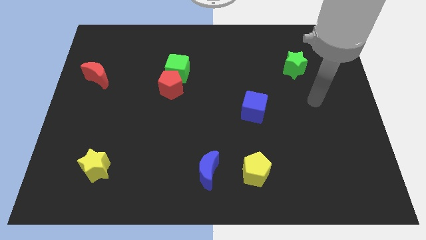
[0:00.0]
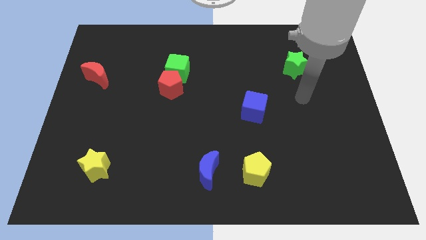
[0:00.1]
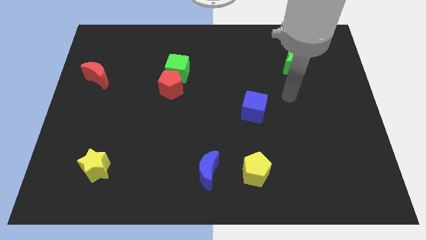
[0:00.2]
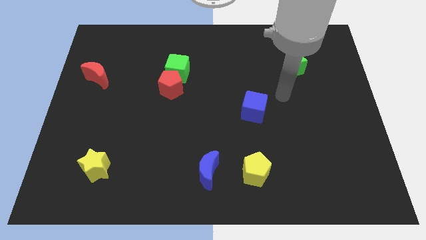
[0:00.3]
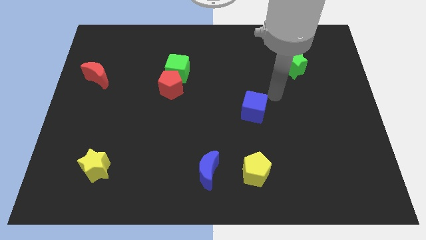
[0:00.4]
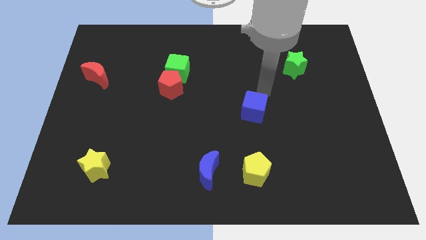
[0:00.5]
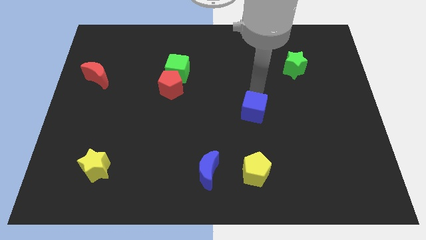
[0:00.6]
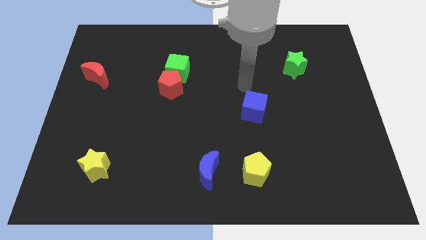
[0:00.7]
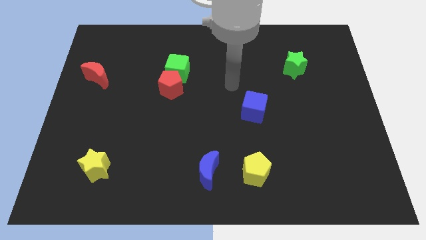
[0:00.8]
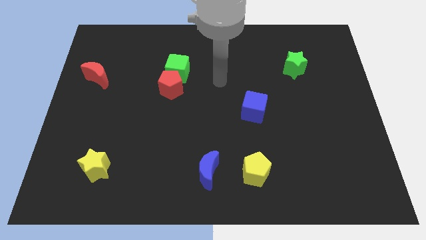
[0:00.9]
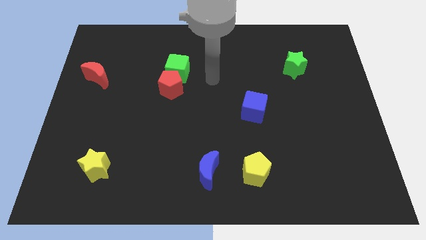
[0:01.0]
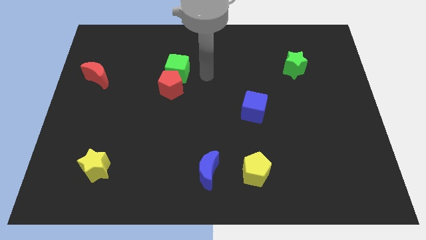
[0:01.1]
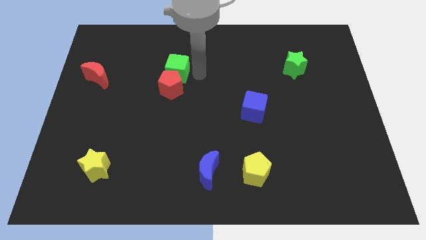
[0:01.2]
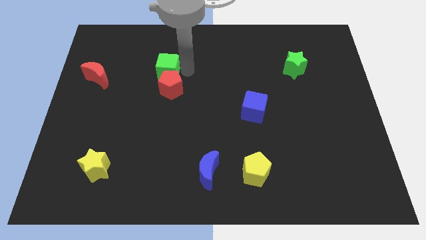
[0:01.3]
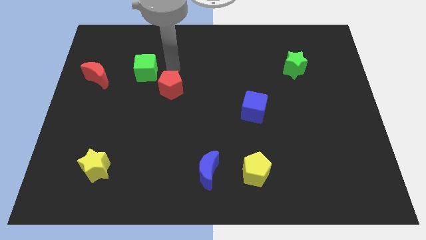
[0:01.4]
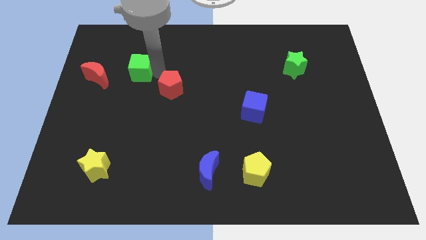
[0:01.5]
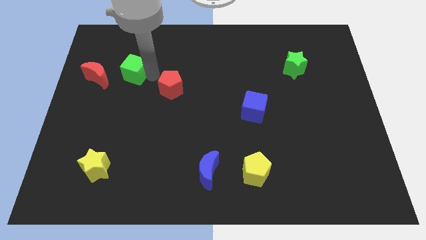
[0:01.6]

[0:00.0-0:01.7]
move the red pentagon away from the green cube

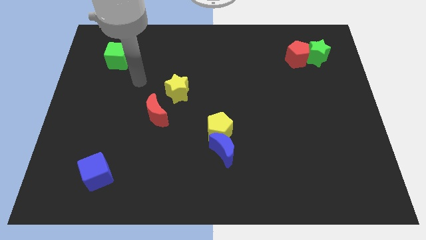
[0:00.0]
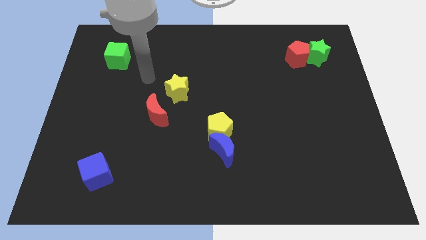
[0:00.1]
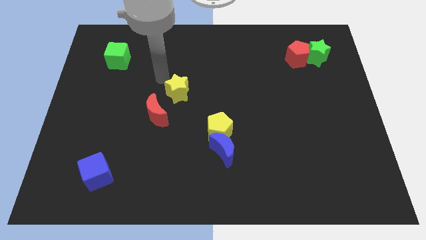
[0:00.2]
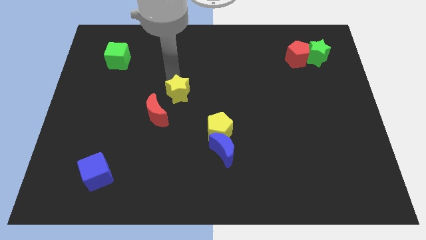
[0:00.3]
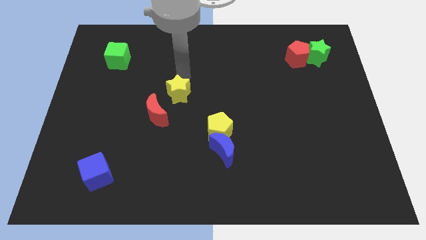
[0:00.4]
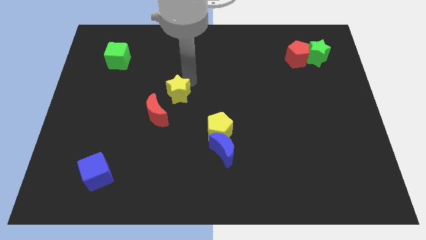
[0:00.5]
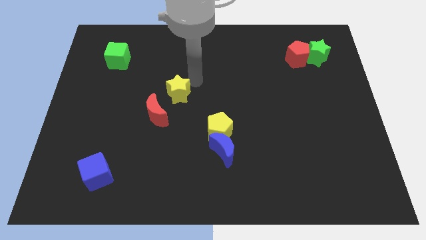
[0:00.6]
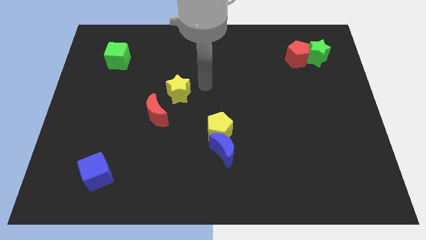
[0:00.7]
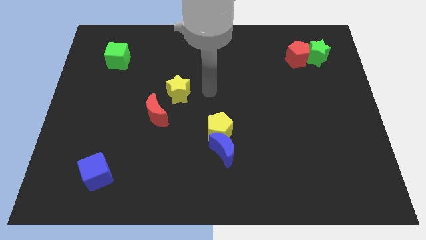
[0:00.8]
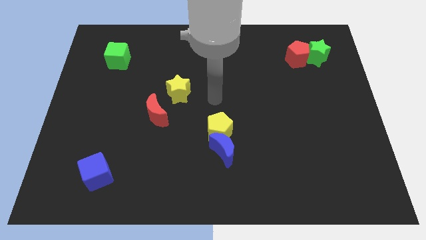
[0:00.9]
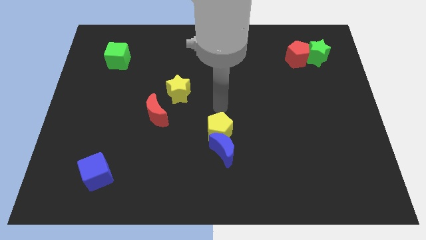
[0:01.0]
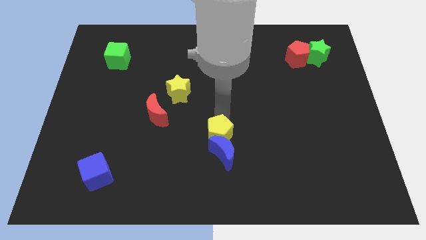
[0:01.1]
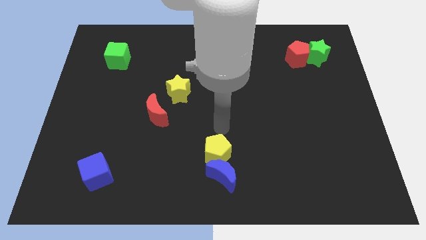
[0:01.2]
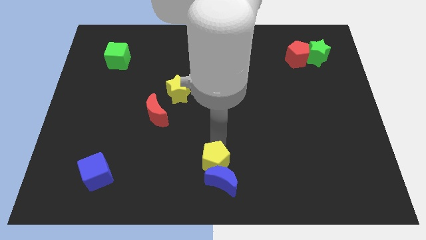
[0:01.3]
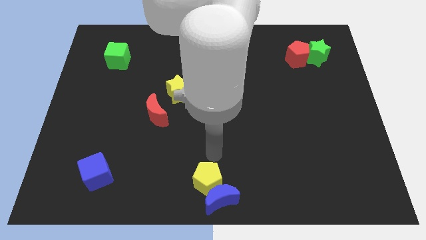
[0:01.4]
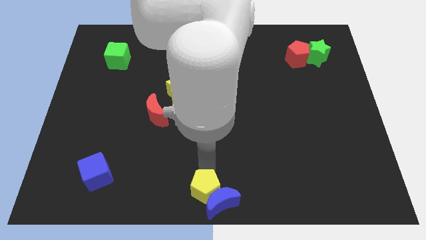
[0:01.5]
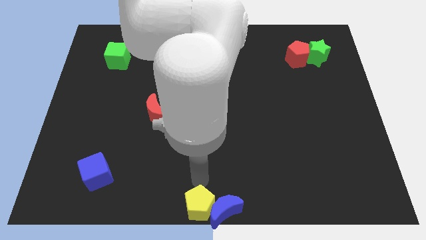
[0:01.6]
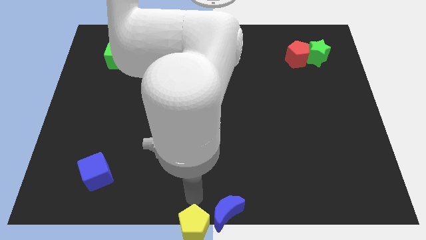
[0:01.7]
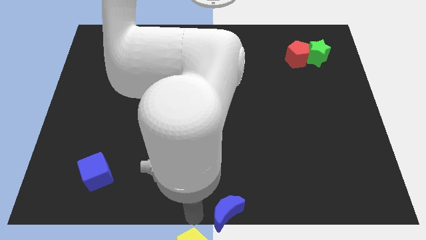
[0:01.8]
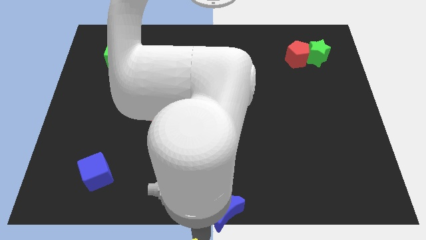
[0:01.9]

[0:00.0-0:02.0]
pull the blue moon apart from the yellow pentagon

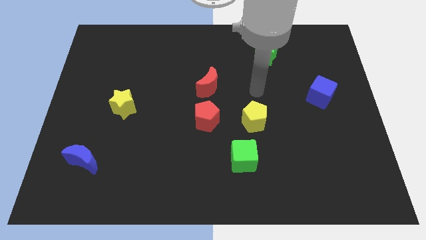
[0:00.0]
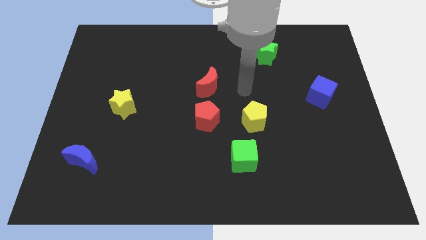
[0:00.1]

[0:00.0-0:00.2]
pull the red moon apart from the red pentagon

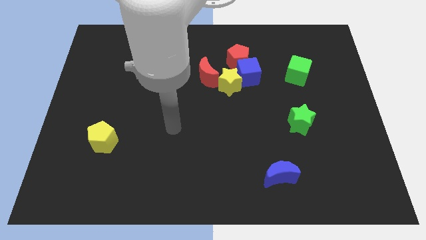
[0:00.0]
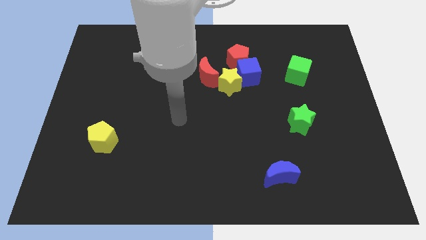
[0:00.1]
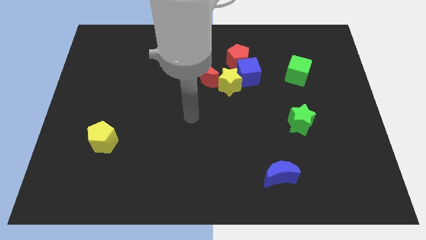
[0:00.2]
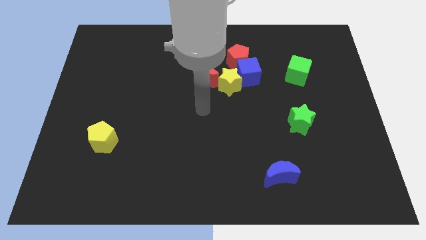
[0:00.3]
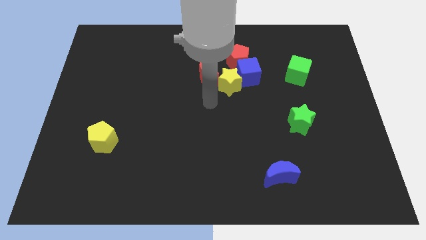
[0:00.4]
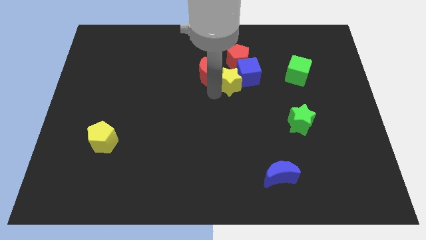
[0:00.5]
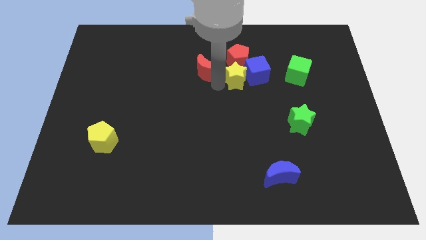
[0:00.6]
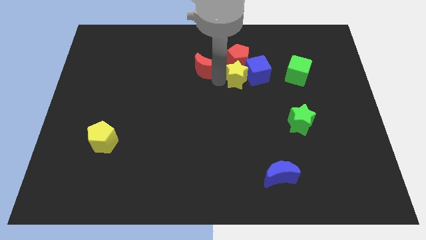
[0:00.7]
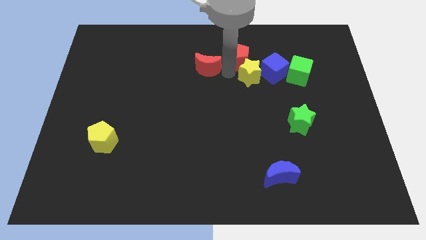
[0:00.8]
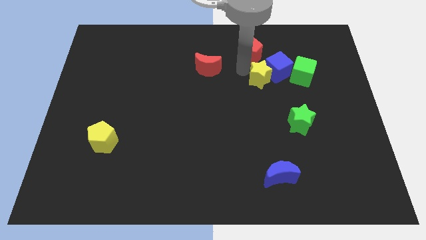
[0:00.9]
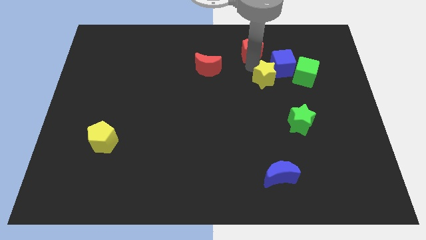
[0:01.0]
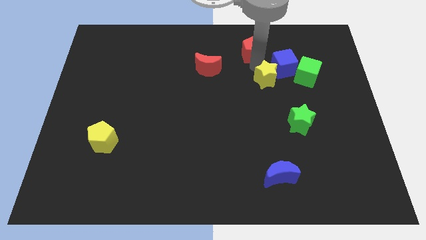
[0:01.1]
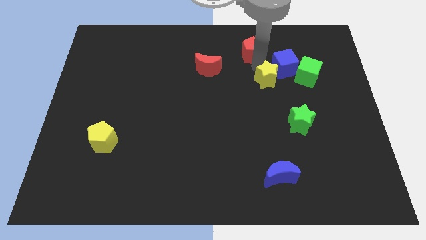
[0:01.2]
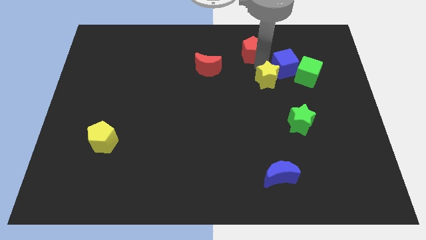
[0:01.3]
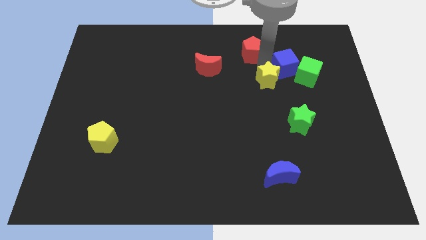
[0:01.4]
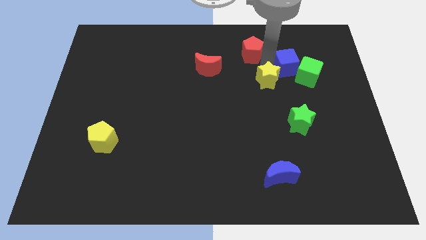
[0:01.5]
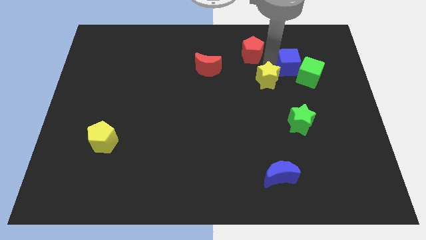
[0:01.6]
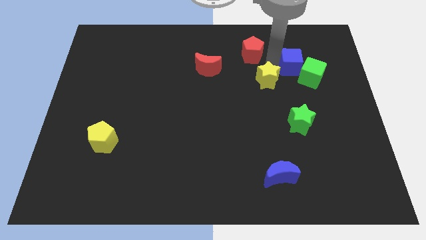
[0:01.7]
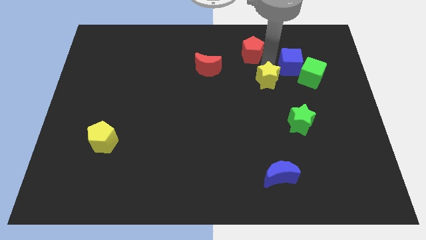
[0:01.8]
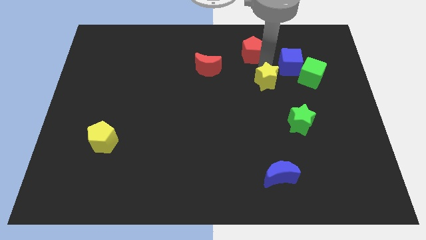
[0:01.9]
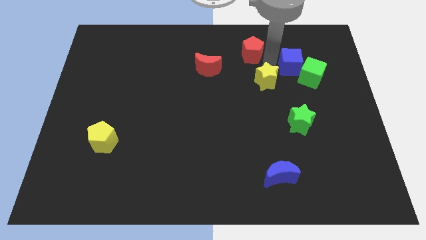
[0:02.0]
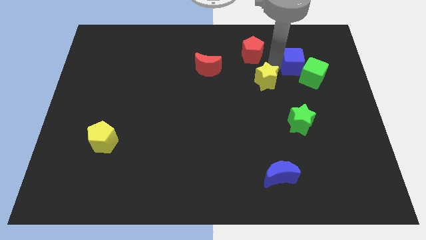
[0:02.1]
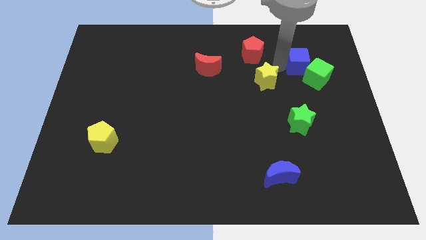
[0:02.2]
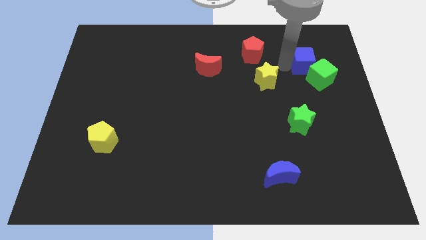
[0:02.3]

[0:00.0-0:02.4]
separate the blue cube from the red pentagon and yellow star

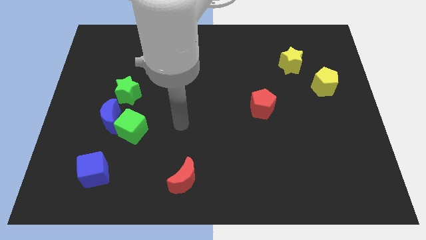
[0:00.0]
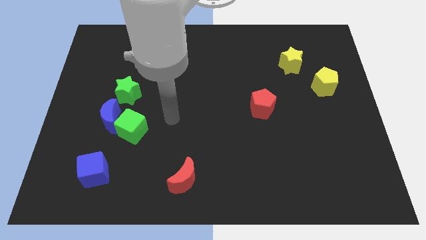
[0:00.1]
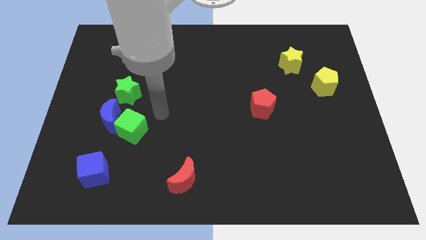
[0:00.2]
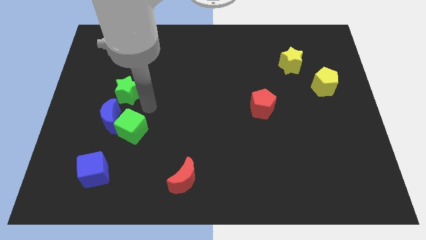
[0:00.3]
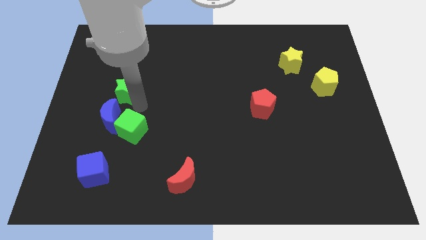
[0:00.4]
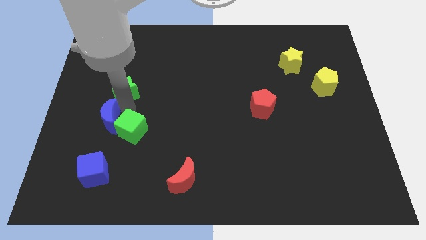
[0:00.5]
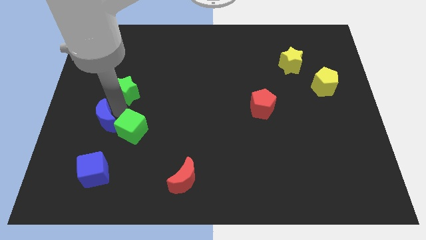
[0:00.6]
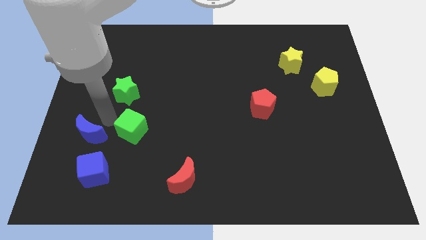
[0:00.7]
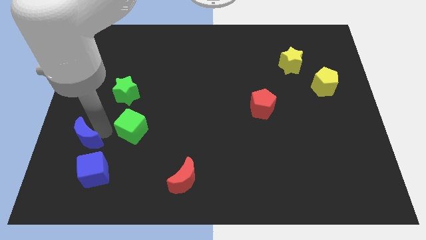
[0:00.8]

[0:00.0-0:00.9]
move the green cube away from the blue moon

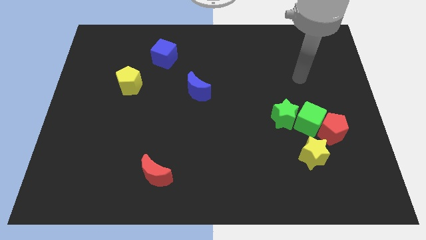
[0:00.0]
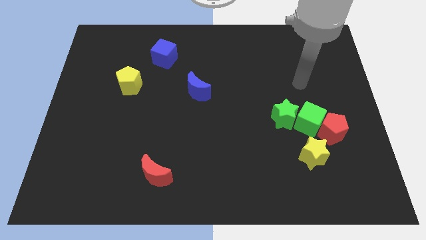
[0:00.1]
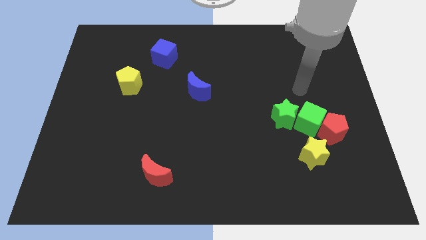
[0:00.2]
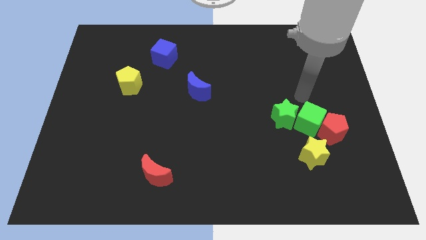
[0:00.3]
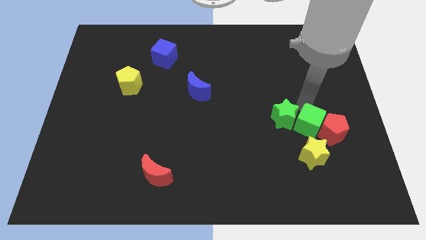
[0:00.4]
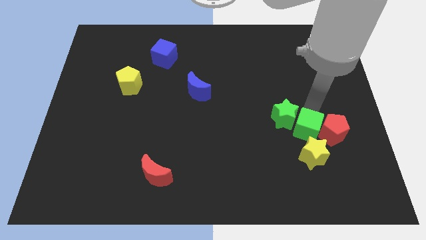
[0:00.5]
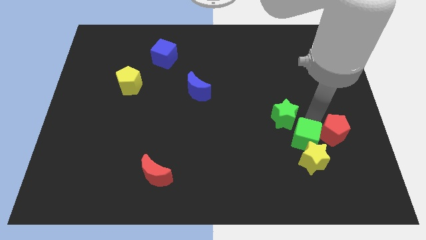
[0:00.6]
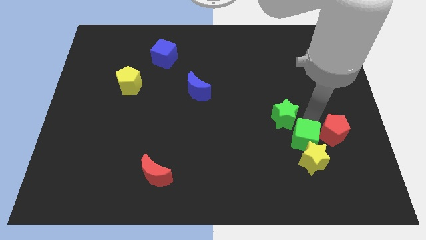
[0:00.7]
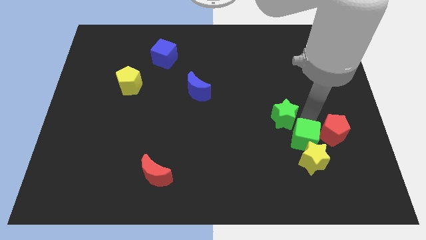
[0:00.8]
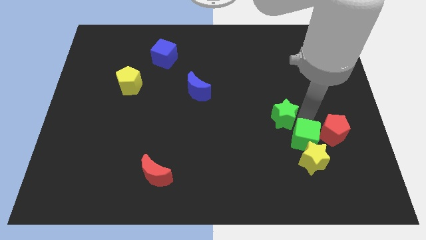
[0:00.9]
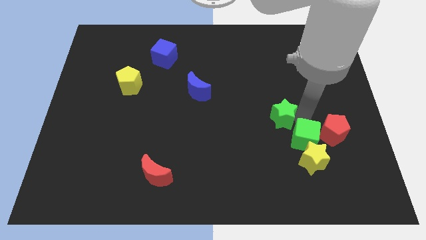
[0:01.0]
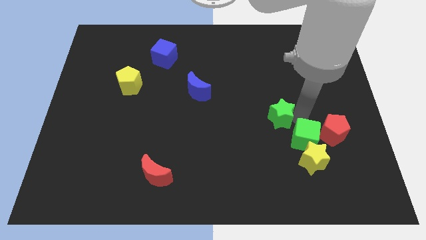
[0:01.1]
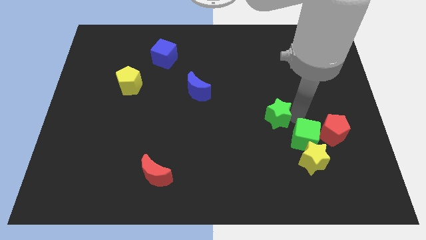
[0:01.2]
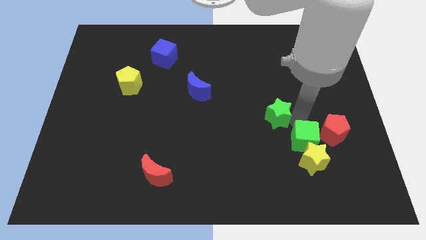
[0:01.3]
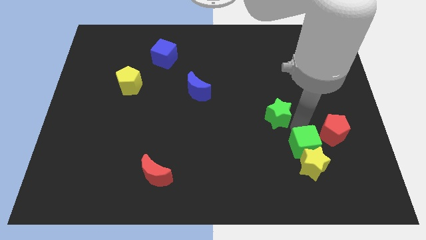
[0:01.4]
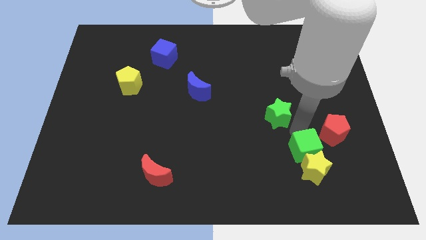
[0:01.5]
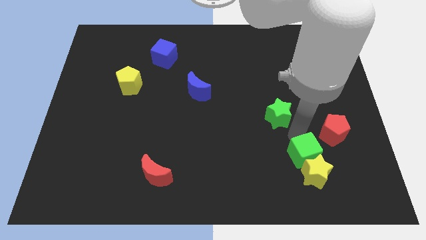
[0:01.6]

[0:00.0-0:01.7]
move the green star away from the green cube

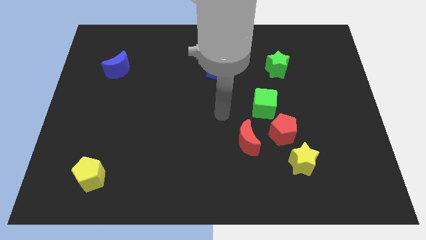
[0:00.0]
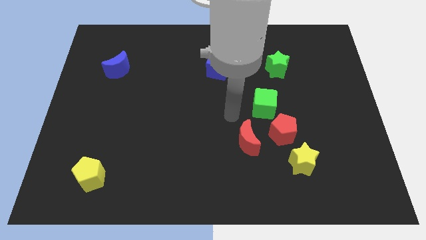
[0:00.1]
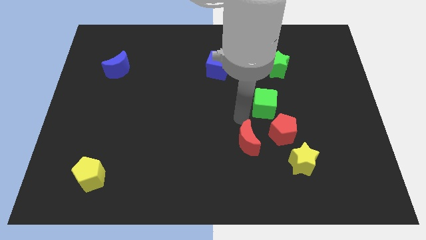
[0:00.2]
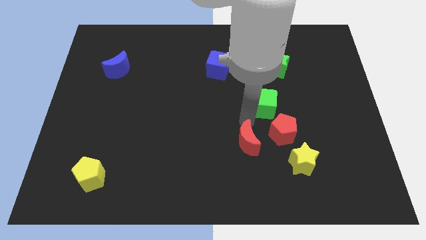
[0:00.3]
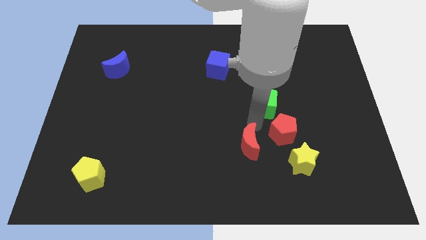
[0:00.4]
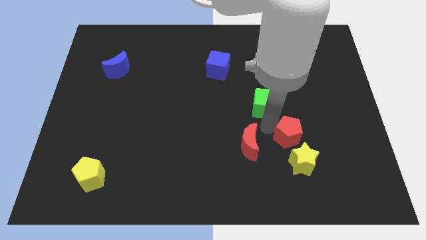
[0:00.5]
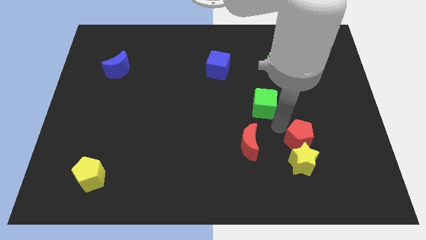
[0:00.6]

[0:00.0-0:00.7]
separate the green cube from the red pentagon
